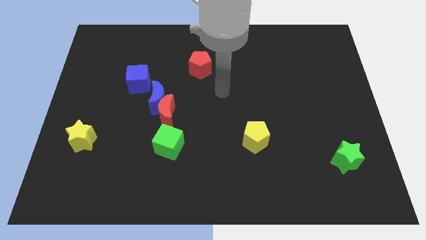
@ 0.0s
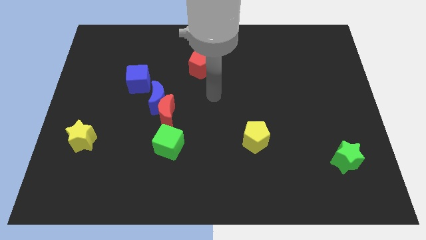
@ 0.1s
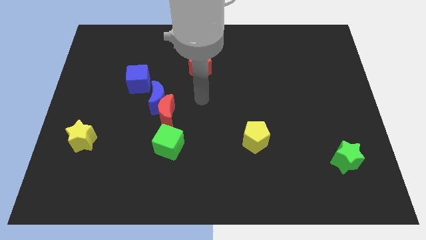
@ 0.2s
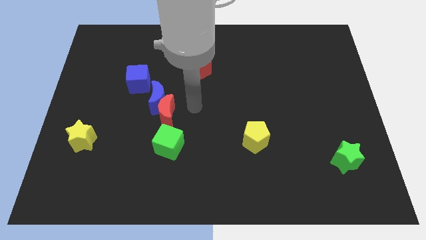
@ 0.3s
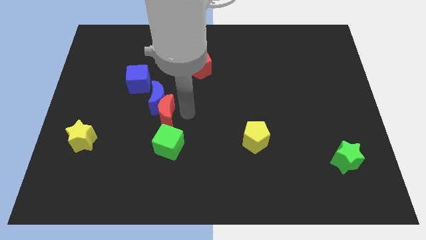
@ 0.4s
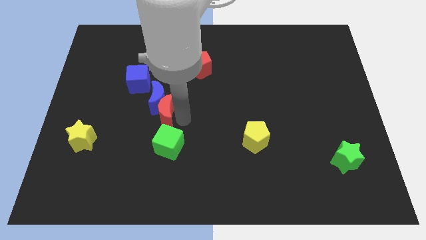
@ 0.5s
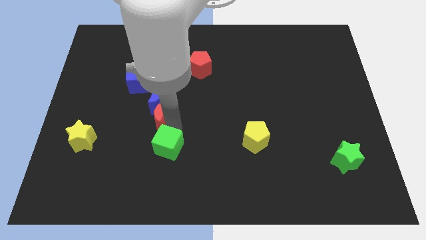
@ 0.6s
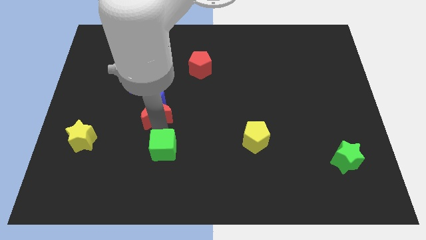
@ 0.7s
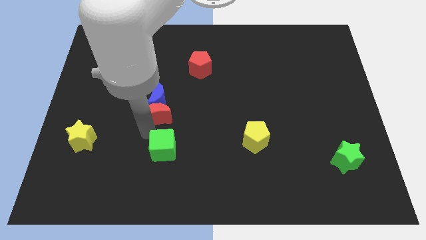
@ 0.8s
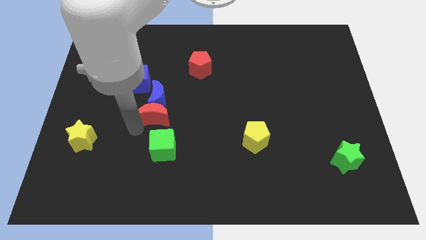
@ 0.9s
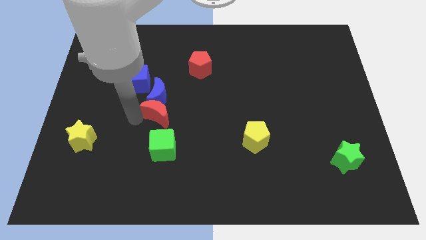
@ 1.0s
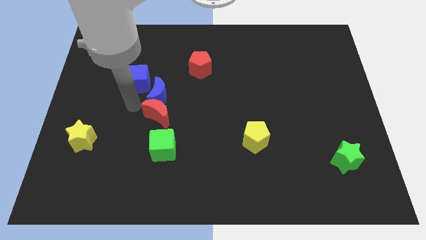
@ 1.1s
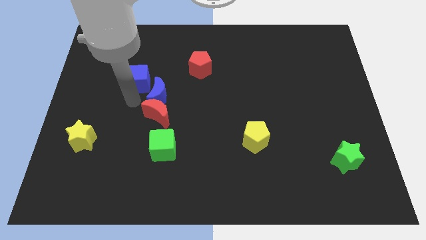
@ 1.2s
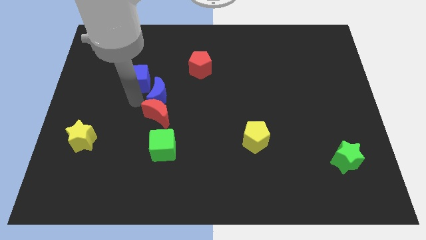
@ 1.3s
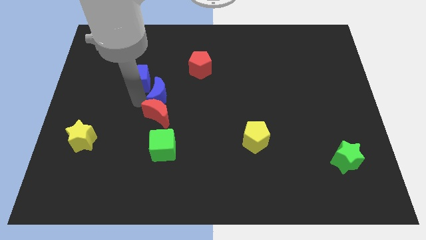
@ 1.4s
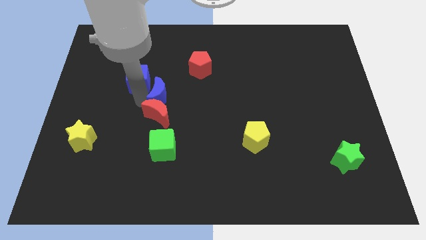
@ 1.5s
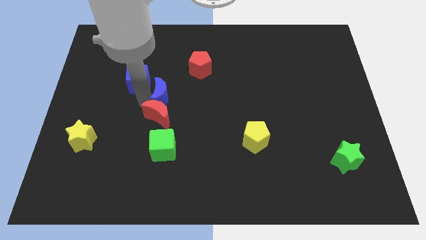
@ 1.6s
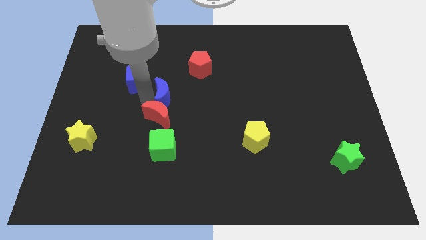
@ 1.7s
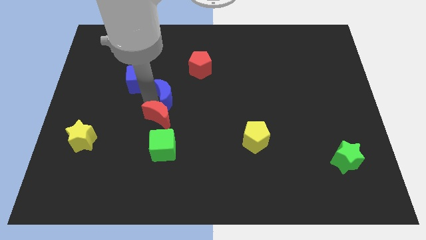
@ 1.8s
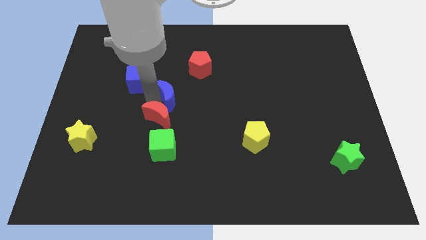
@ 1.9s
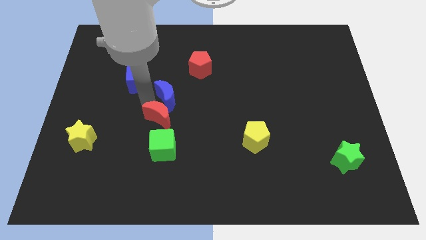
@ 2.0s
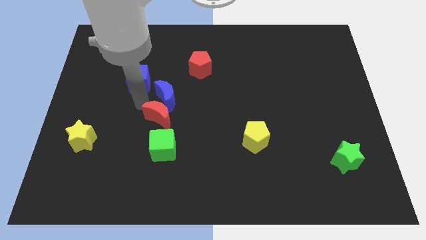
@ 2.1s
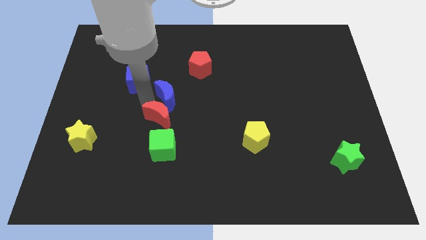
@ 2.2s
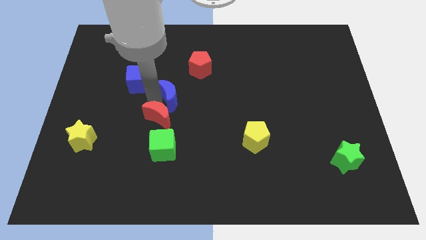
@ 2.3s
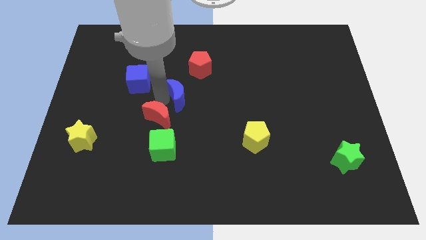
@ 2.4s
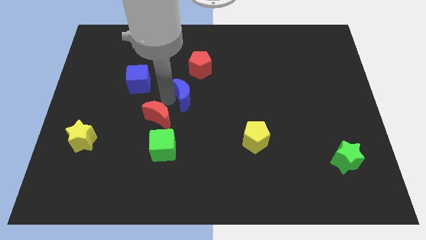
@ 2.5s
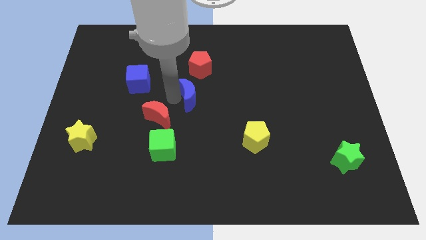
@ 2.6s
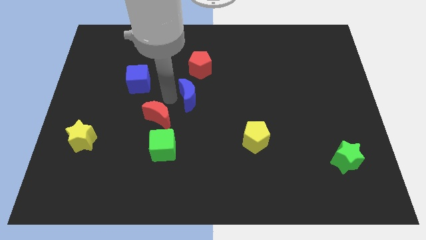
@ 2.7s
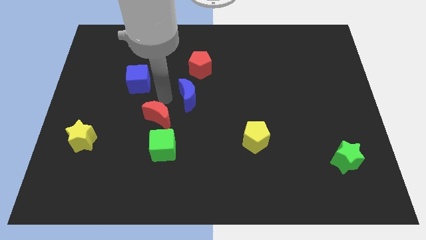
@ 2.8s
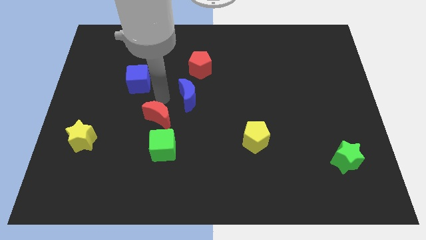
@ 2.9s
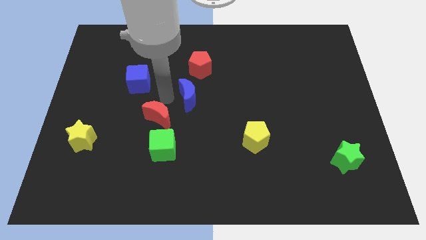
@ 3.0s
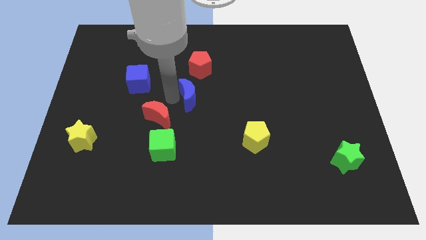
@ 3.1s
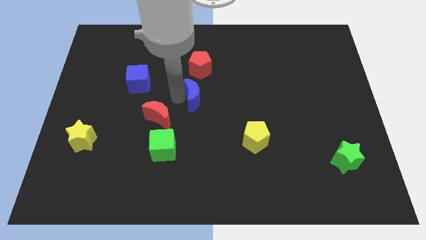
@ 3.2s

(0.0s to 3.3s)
separate the blue moon from the red moon and blue cube

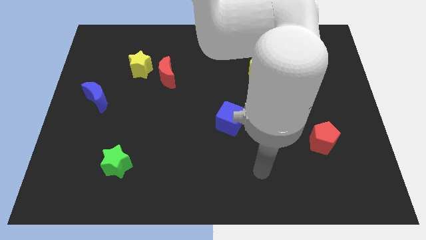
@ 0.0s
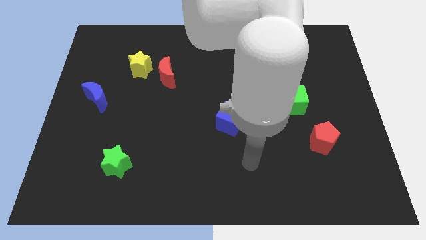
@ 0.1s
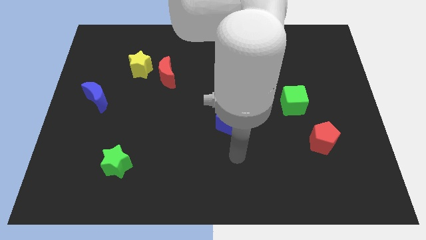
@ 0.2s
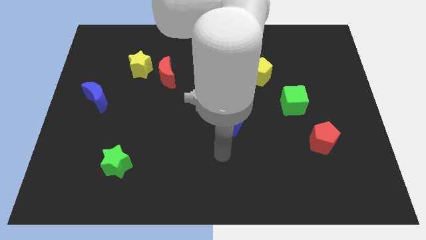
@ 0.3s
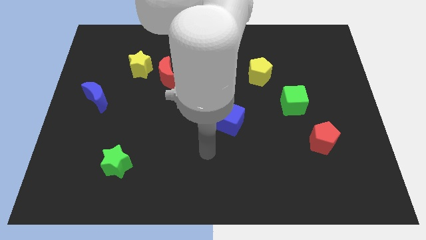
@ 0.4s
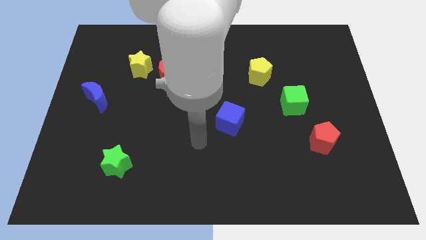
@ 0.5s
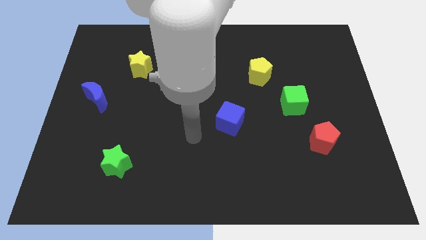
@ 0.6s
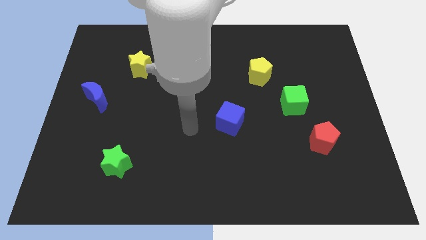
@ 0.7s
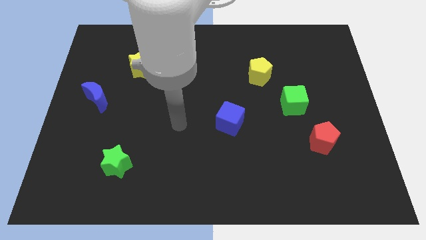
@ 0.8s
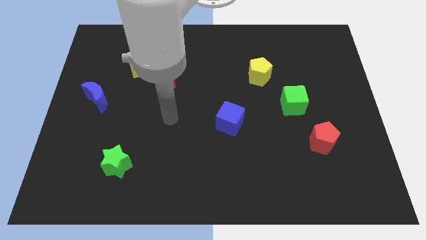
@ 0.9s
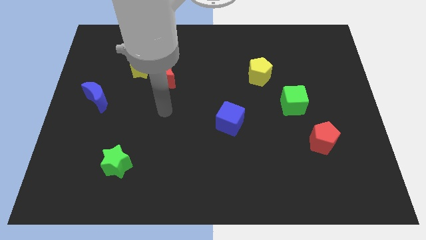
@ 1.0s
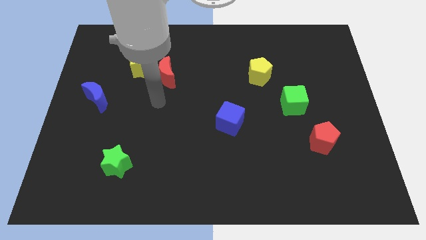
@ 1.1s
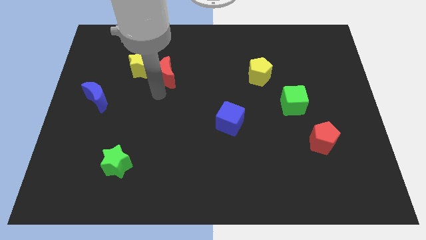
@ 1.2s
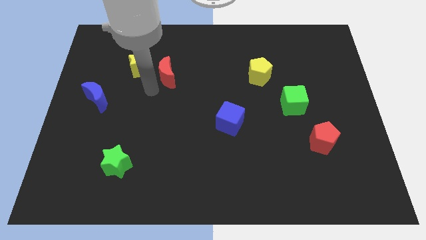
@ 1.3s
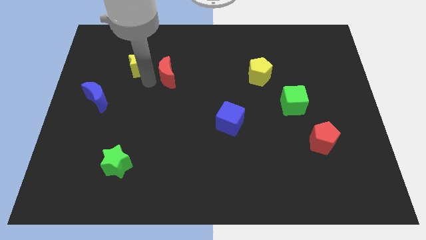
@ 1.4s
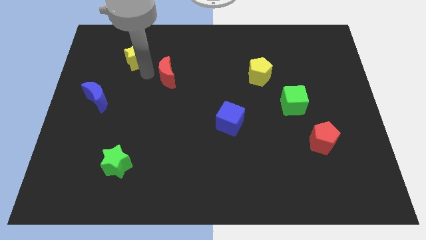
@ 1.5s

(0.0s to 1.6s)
pull the red moon apart from the yellow star

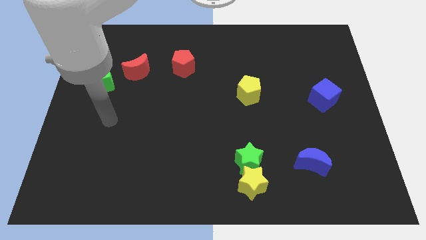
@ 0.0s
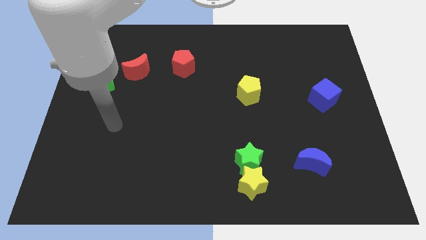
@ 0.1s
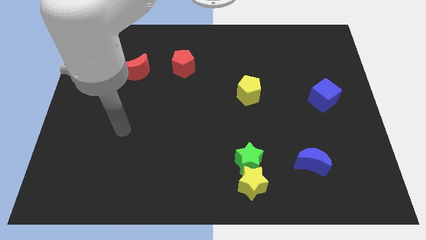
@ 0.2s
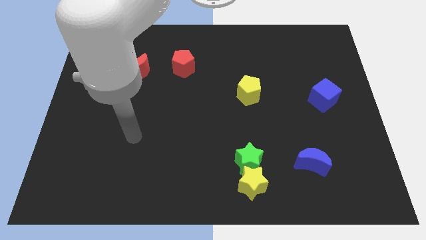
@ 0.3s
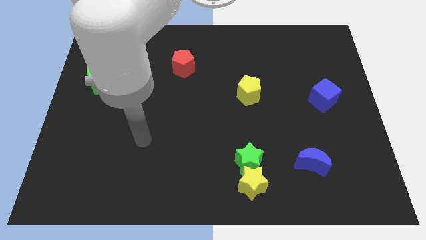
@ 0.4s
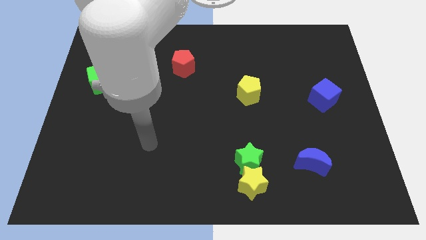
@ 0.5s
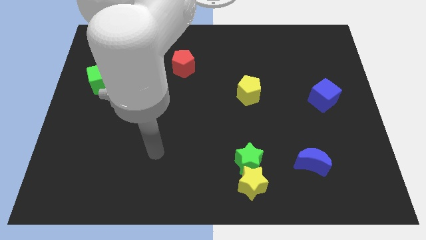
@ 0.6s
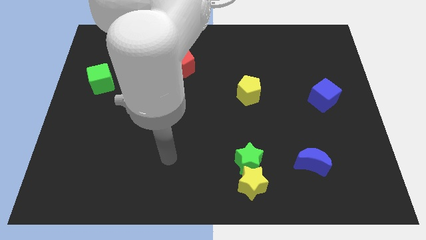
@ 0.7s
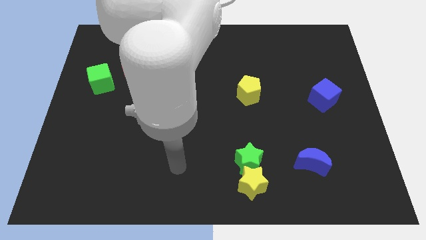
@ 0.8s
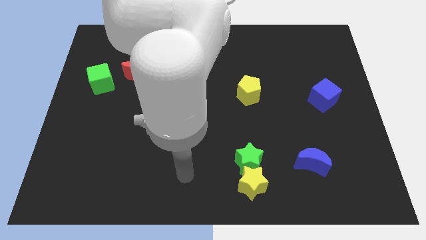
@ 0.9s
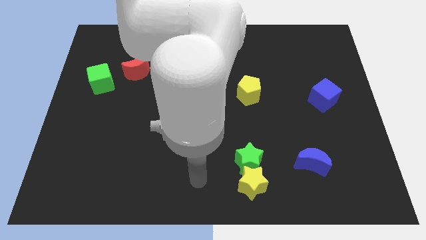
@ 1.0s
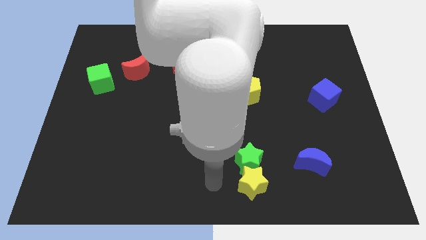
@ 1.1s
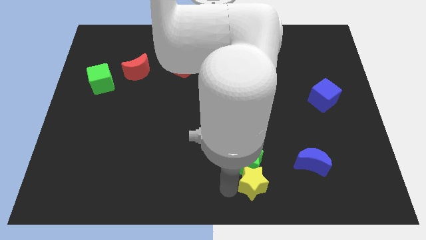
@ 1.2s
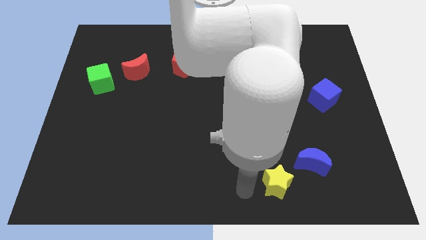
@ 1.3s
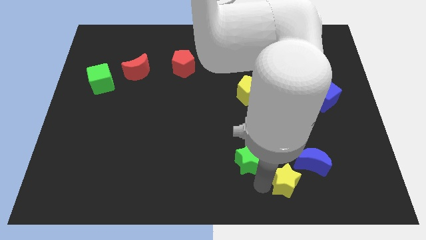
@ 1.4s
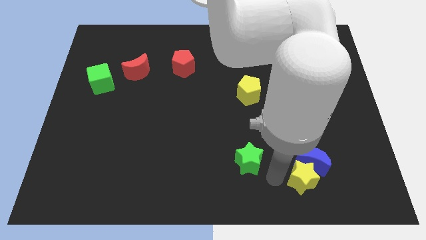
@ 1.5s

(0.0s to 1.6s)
move the green star away from the yellow star

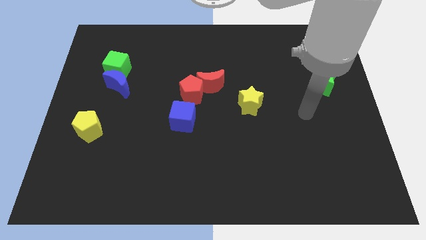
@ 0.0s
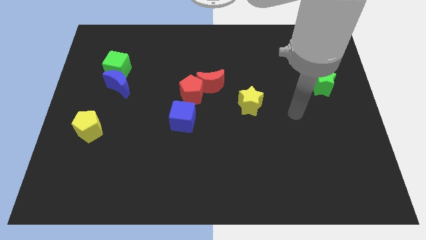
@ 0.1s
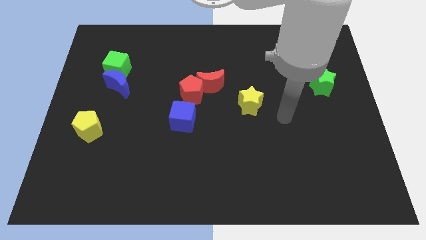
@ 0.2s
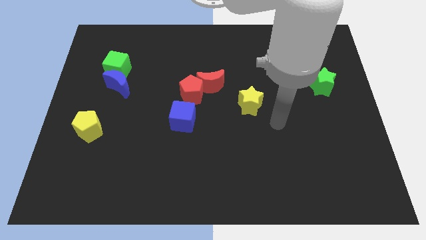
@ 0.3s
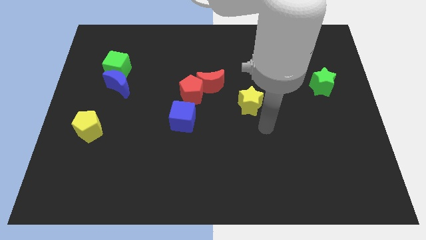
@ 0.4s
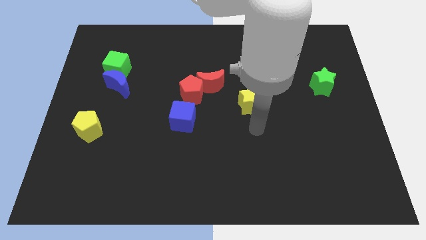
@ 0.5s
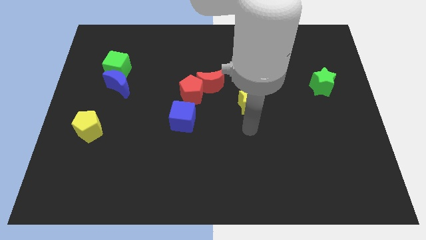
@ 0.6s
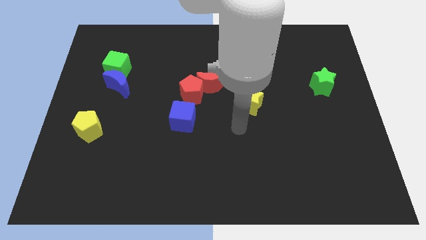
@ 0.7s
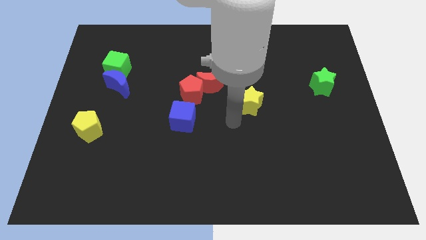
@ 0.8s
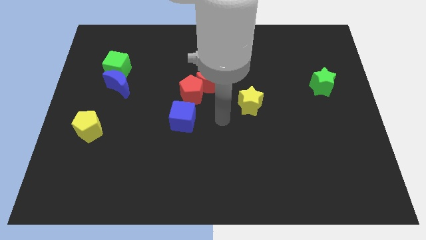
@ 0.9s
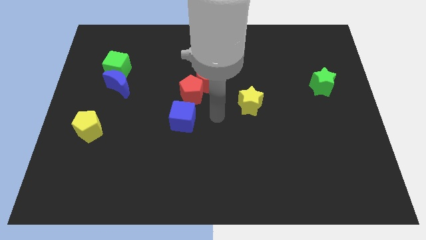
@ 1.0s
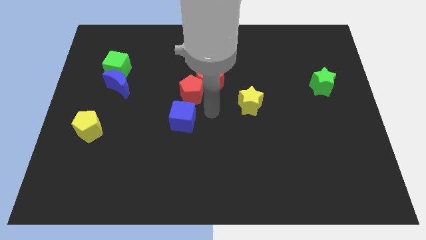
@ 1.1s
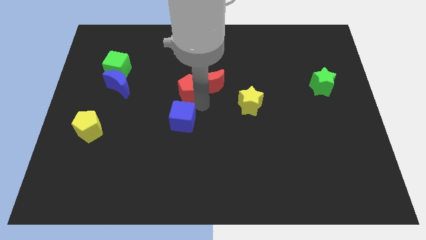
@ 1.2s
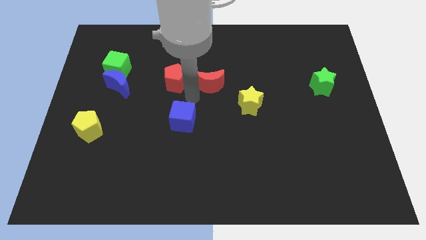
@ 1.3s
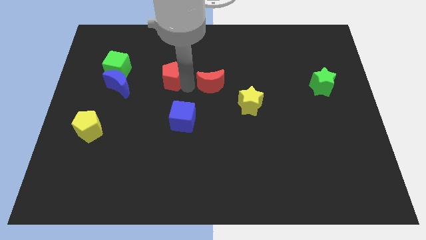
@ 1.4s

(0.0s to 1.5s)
move the red moon away from the red pentagon

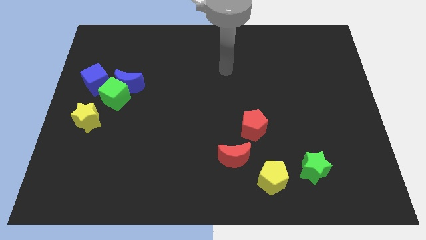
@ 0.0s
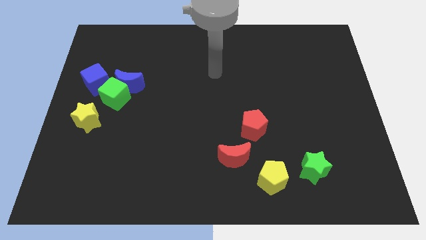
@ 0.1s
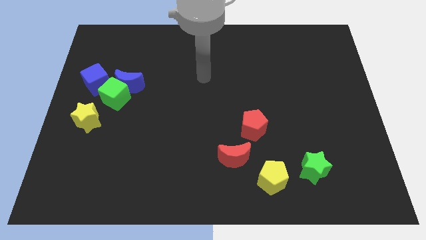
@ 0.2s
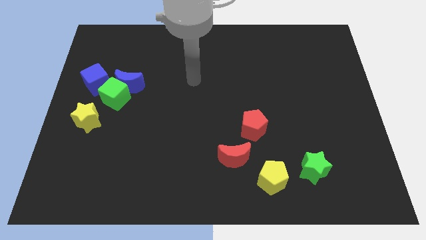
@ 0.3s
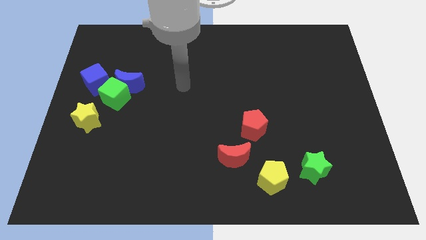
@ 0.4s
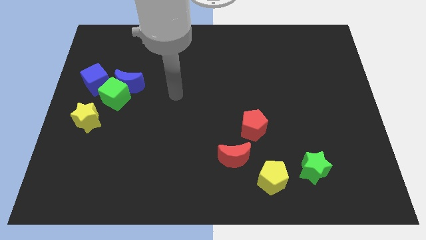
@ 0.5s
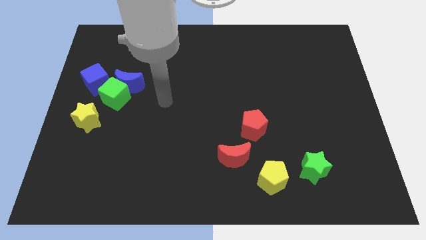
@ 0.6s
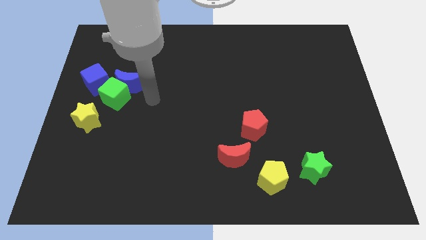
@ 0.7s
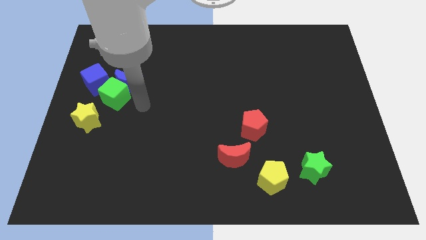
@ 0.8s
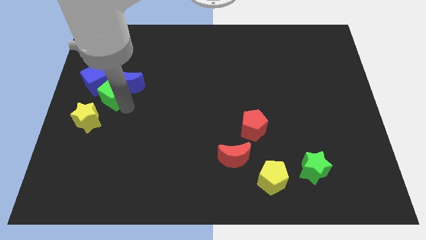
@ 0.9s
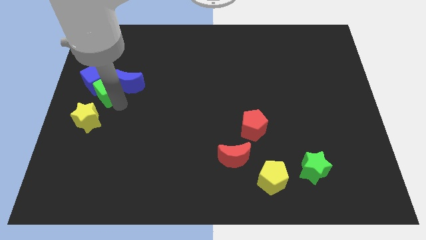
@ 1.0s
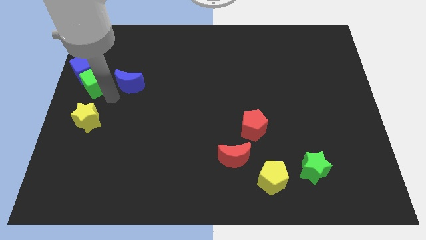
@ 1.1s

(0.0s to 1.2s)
separate the blue moon from the green cube and blue cube
